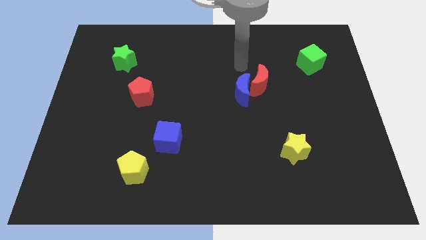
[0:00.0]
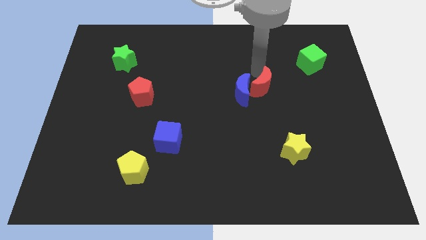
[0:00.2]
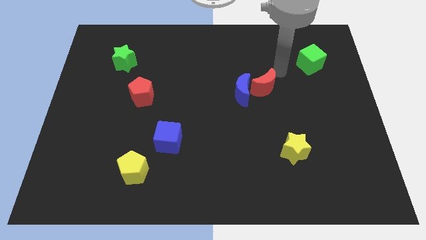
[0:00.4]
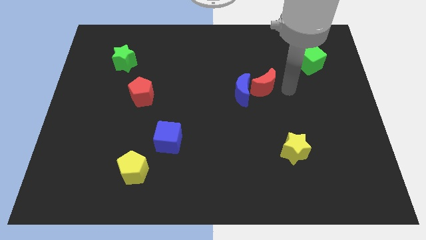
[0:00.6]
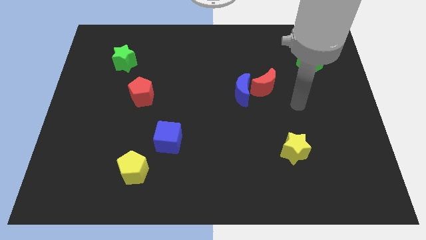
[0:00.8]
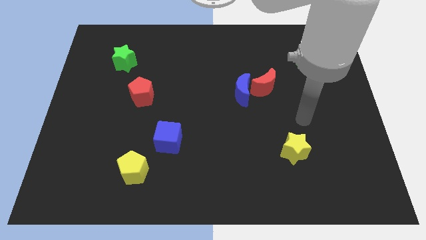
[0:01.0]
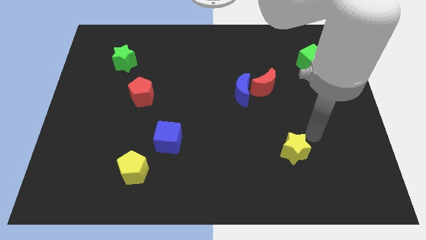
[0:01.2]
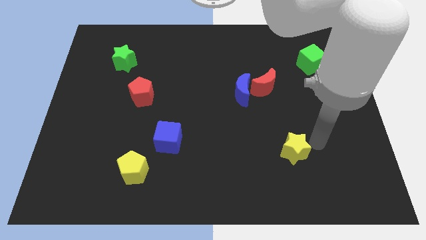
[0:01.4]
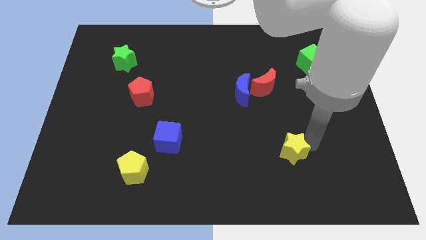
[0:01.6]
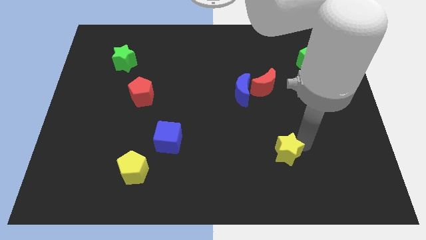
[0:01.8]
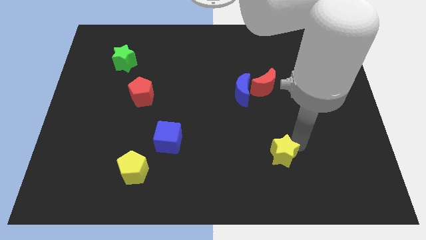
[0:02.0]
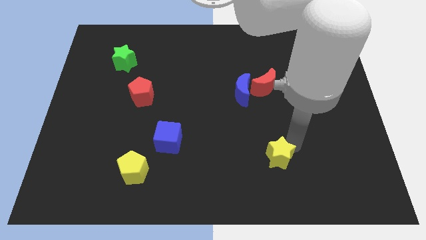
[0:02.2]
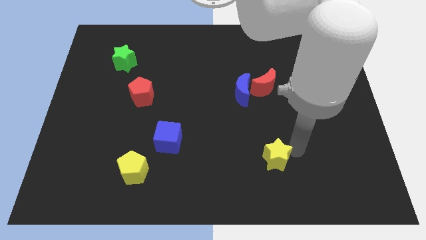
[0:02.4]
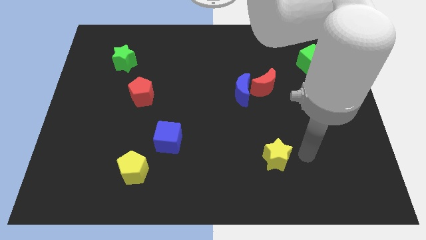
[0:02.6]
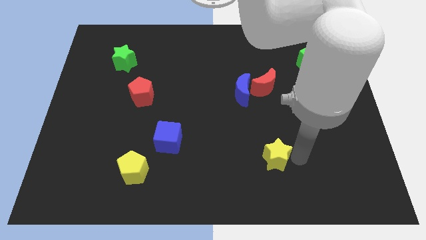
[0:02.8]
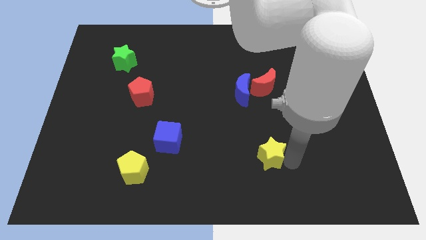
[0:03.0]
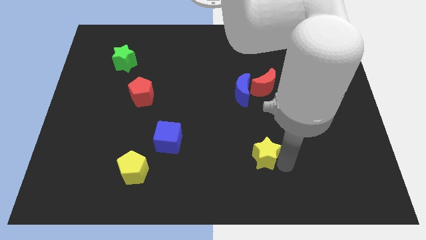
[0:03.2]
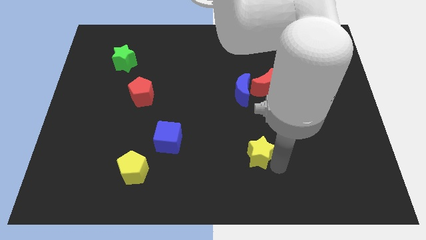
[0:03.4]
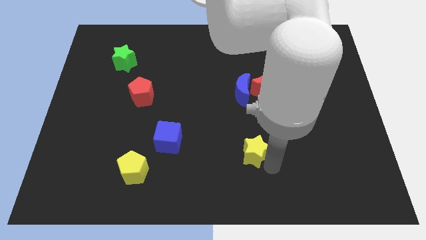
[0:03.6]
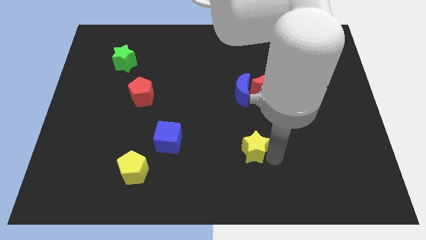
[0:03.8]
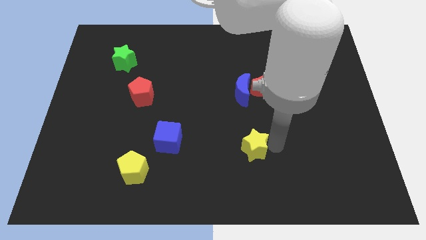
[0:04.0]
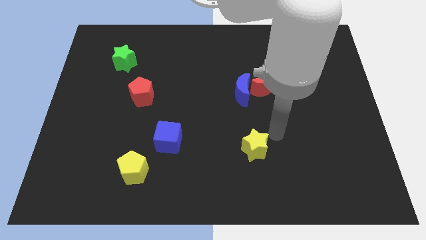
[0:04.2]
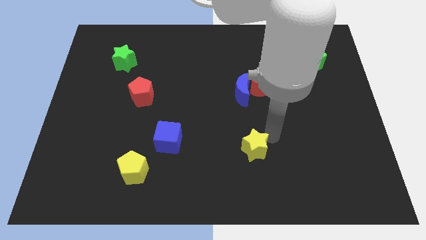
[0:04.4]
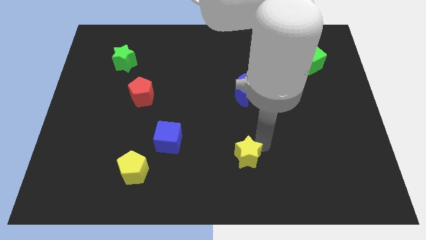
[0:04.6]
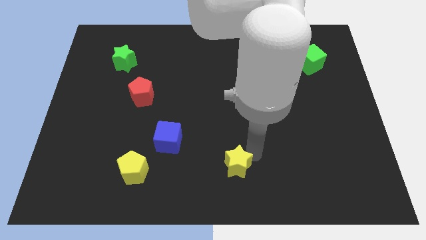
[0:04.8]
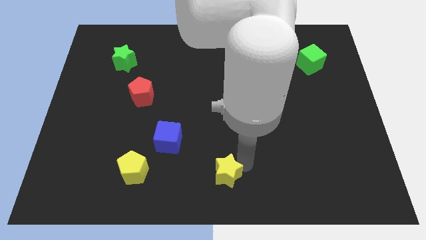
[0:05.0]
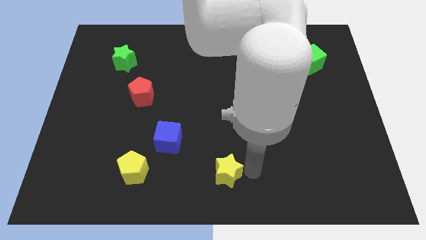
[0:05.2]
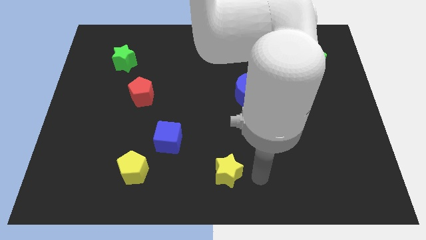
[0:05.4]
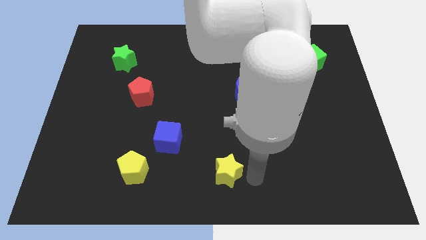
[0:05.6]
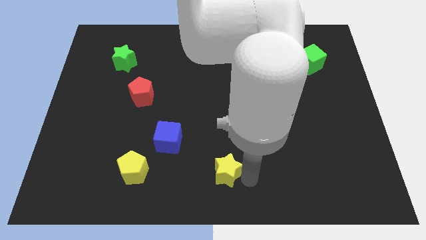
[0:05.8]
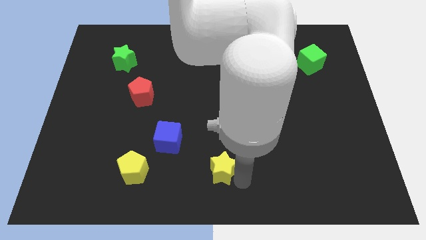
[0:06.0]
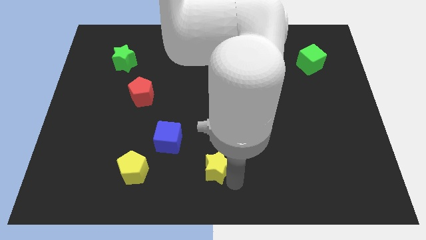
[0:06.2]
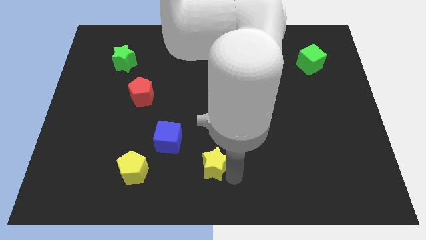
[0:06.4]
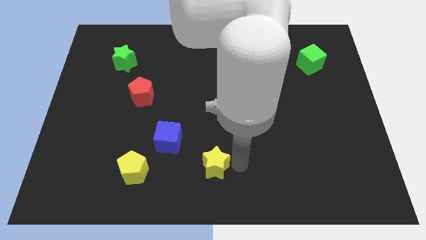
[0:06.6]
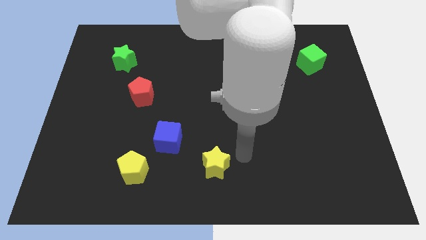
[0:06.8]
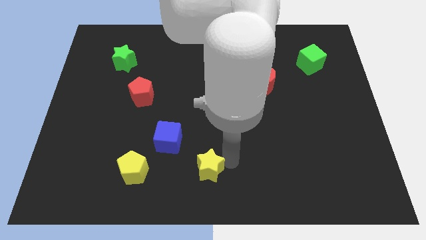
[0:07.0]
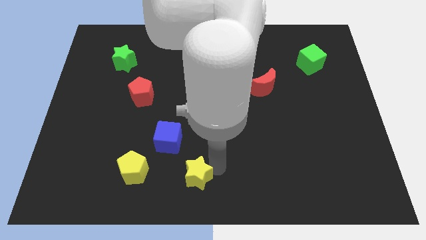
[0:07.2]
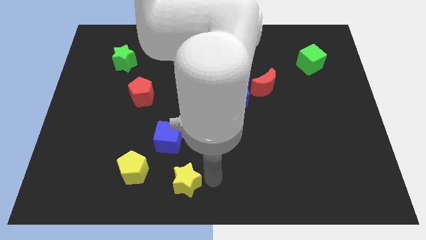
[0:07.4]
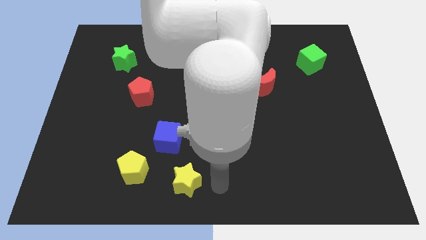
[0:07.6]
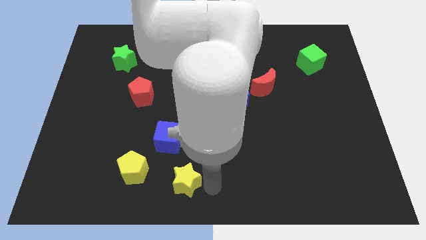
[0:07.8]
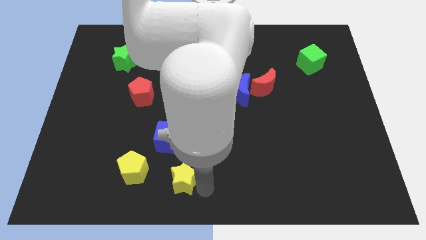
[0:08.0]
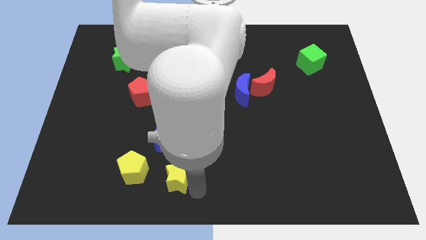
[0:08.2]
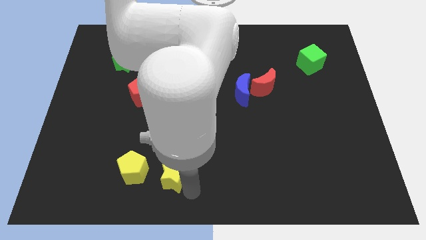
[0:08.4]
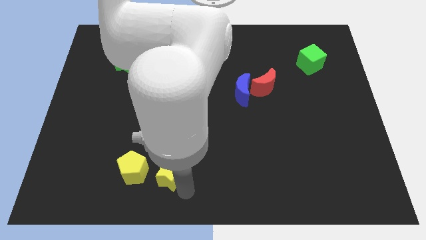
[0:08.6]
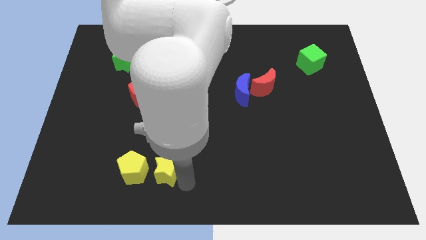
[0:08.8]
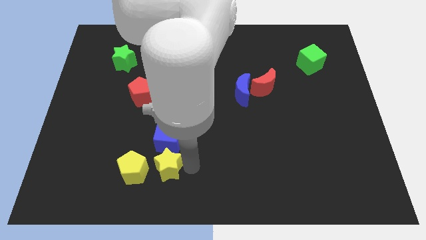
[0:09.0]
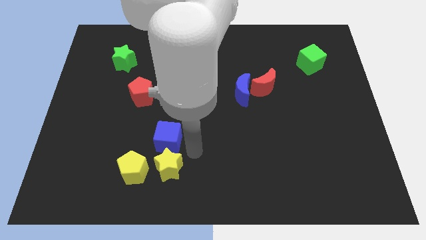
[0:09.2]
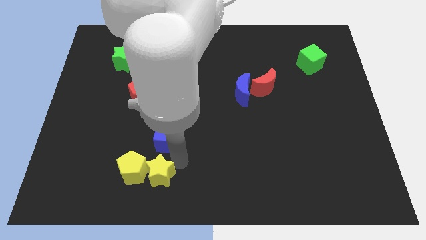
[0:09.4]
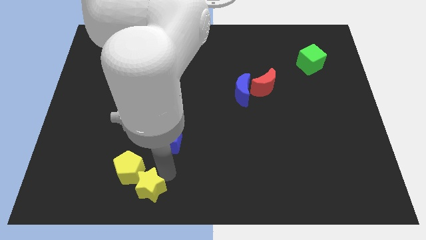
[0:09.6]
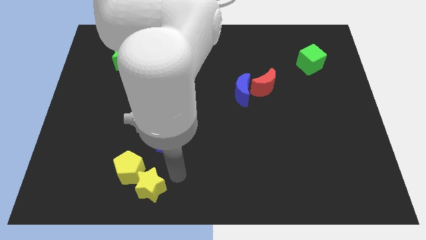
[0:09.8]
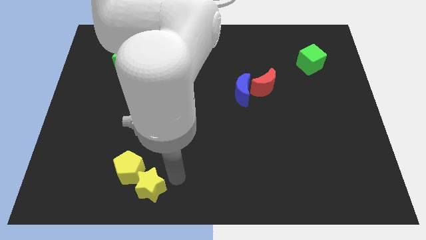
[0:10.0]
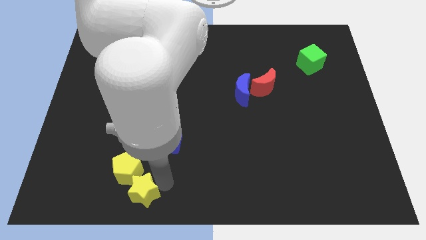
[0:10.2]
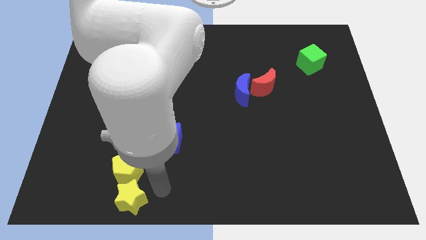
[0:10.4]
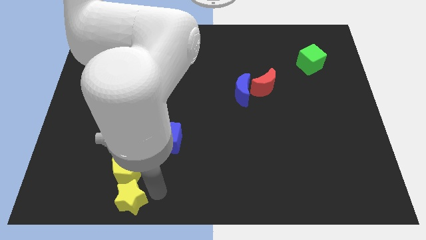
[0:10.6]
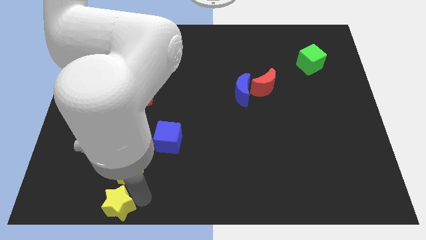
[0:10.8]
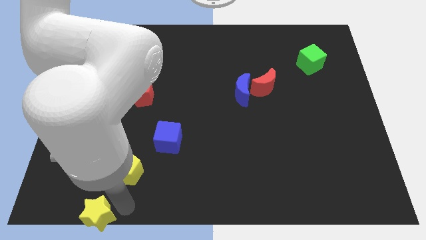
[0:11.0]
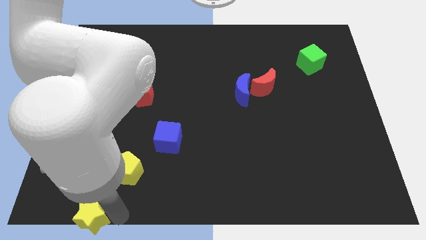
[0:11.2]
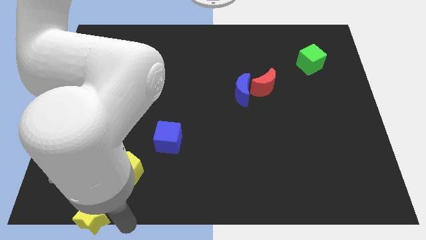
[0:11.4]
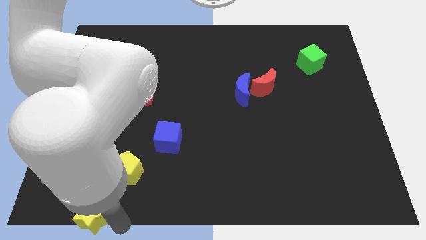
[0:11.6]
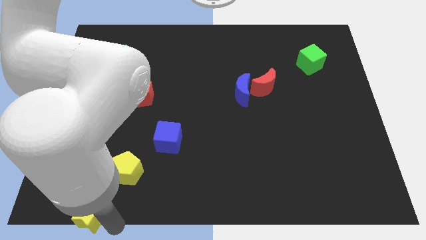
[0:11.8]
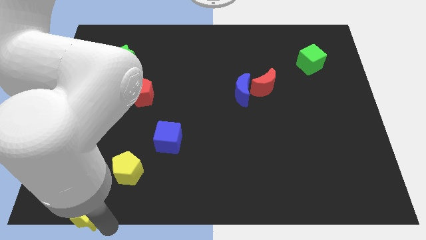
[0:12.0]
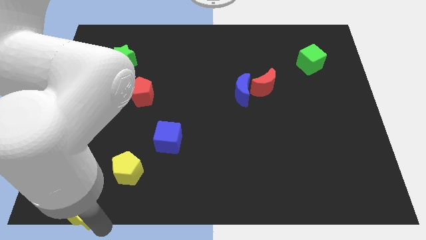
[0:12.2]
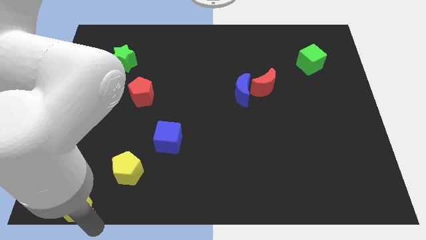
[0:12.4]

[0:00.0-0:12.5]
push the yellow star to the lower left corner
